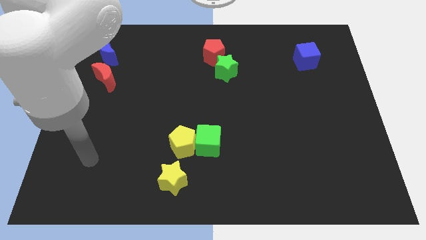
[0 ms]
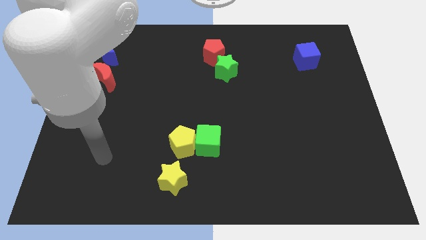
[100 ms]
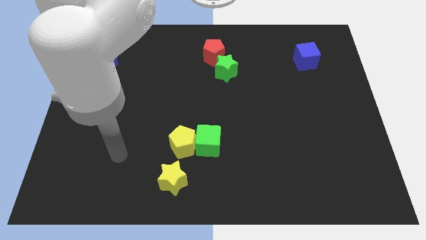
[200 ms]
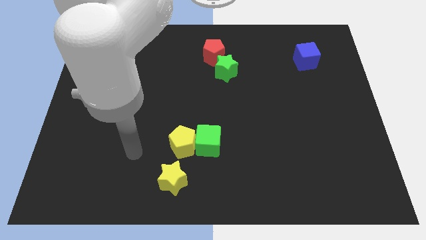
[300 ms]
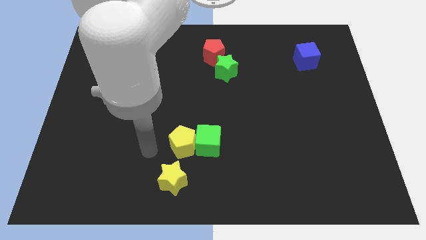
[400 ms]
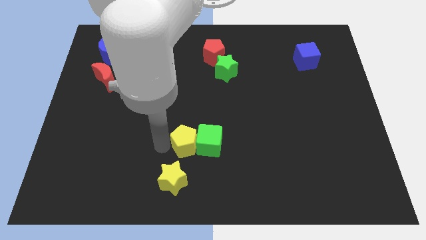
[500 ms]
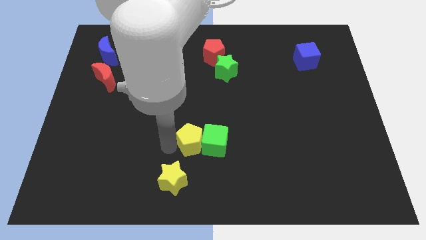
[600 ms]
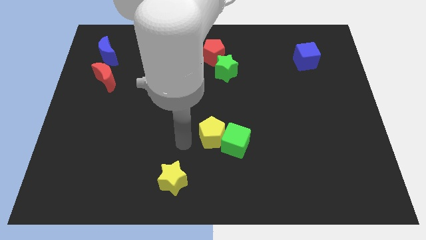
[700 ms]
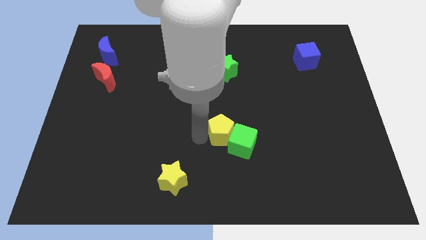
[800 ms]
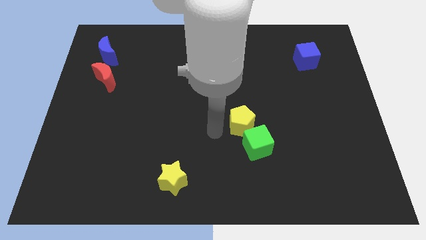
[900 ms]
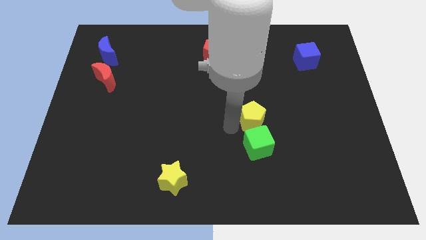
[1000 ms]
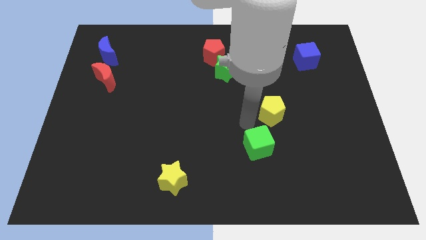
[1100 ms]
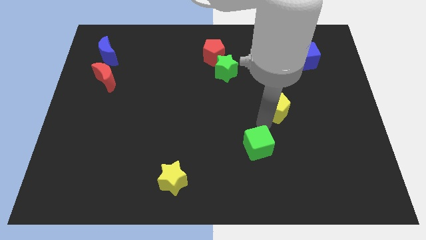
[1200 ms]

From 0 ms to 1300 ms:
pull the green cube apart from the yellow pentagon

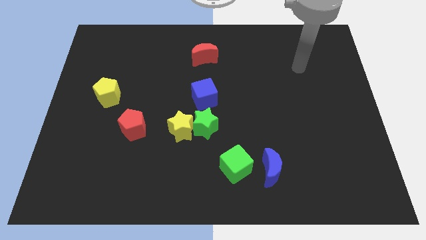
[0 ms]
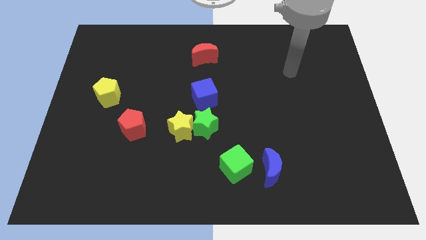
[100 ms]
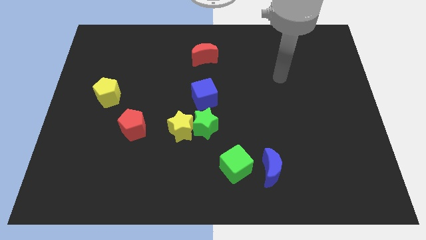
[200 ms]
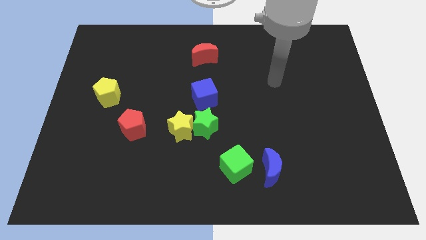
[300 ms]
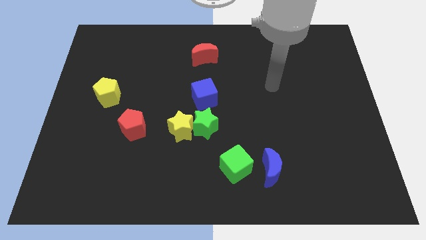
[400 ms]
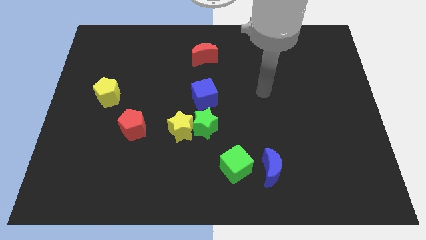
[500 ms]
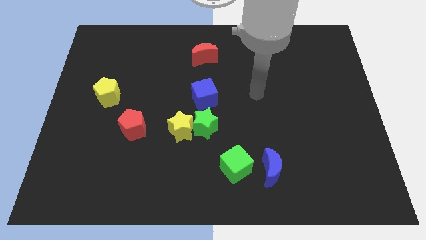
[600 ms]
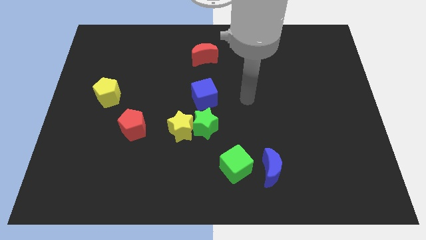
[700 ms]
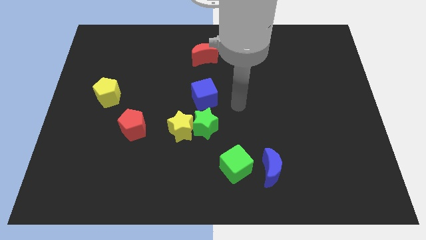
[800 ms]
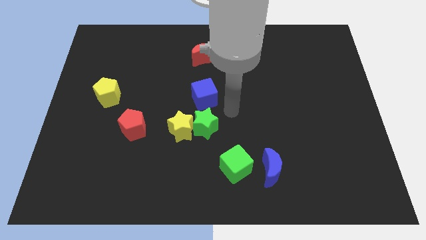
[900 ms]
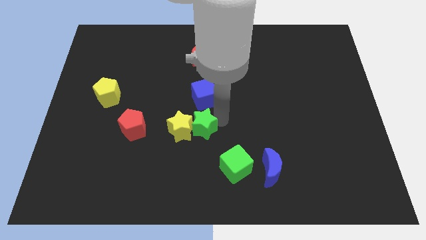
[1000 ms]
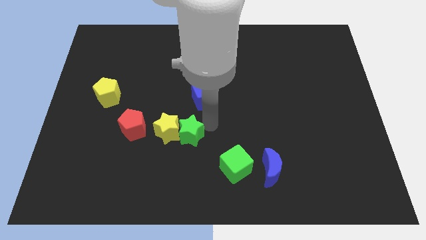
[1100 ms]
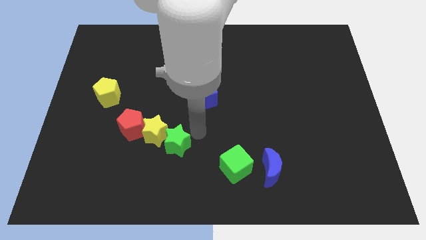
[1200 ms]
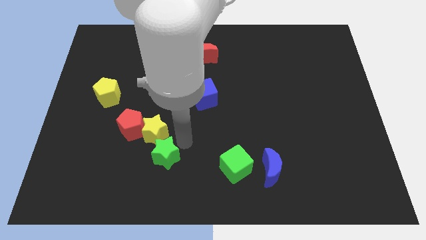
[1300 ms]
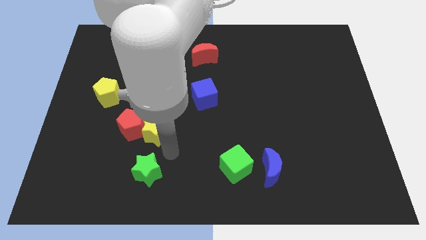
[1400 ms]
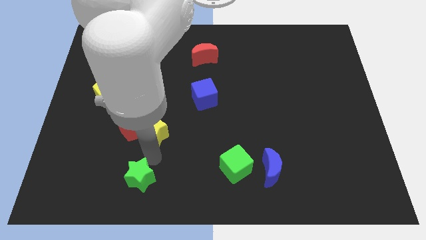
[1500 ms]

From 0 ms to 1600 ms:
separate the yellow star from the green star

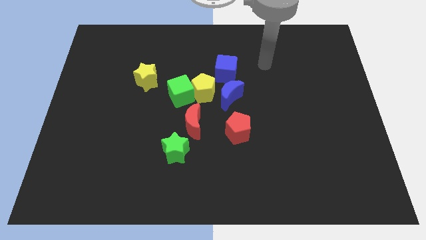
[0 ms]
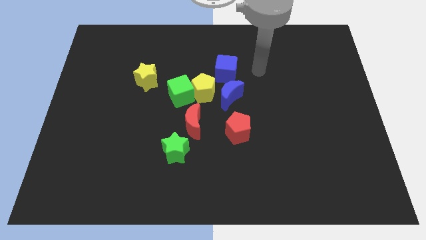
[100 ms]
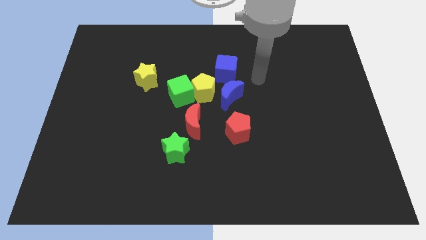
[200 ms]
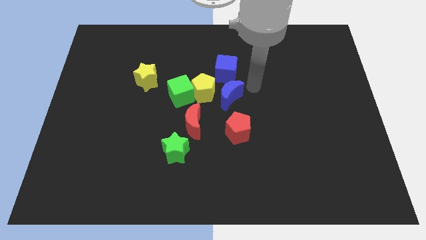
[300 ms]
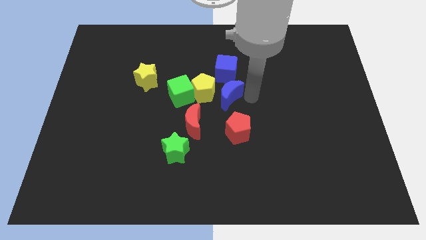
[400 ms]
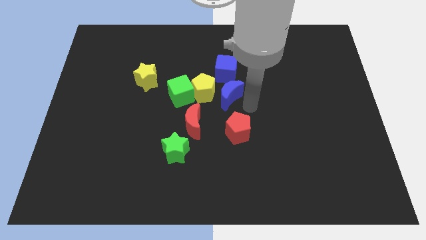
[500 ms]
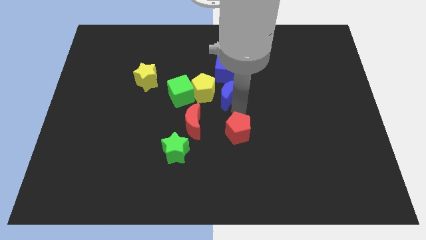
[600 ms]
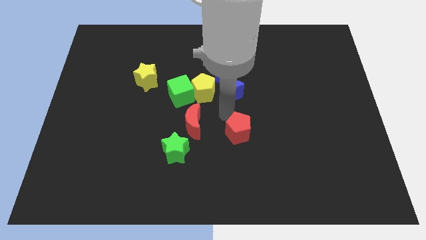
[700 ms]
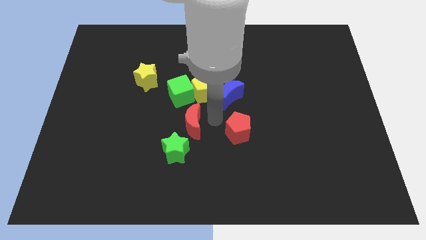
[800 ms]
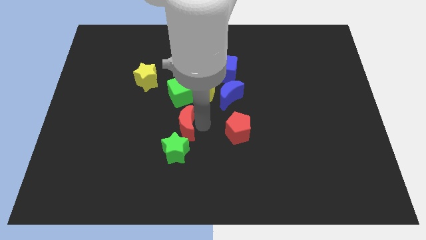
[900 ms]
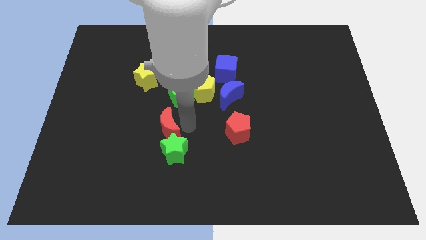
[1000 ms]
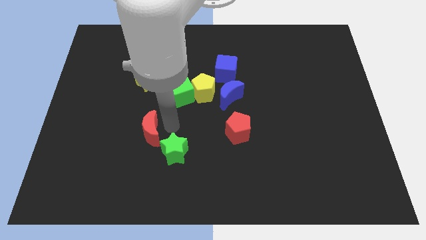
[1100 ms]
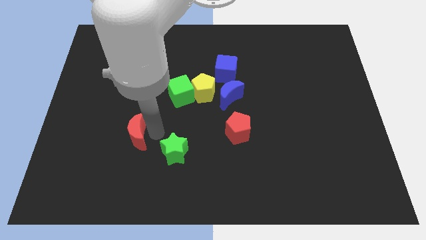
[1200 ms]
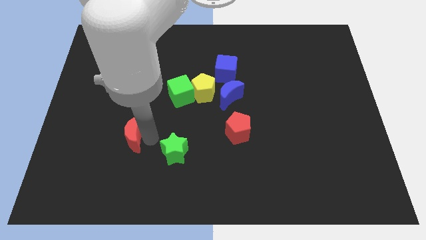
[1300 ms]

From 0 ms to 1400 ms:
pull the green star apart from the red moon

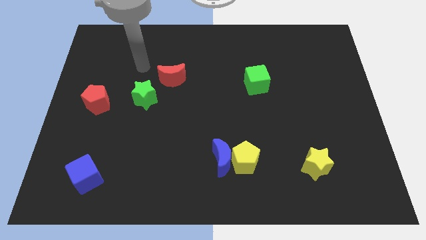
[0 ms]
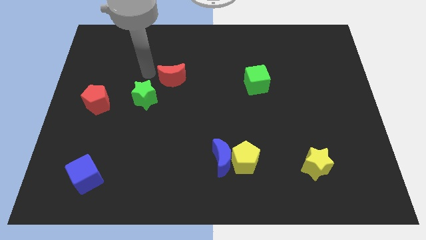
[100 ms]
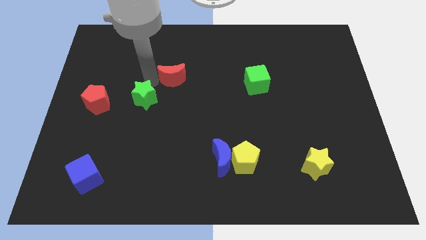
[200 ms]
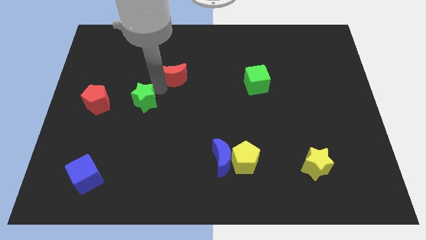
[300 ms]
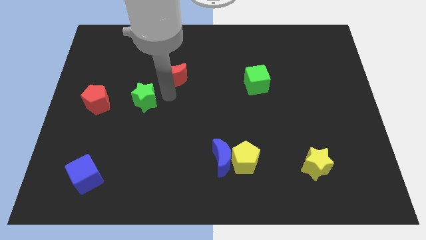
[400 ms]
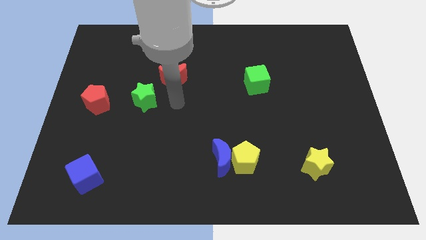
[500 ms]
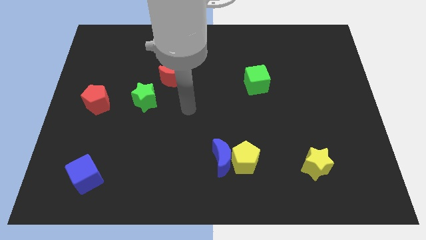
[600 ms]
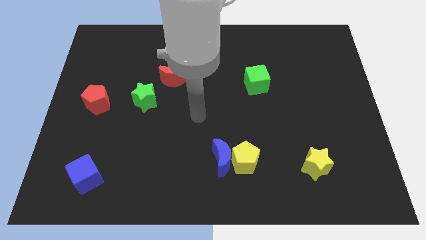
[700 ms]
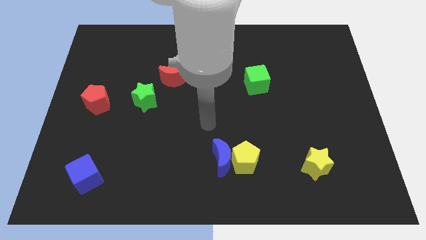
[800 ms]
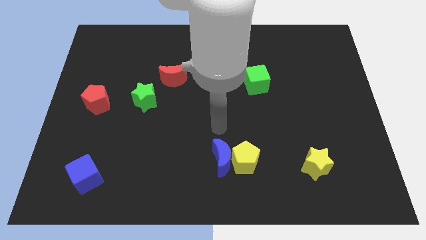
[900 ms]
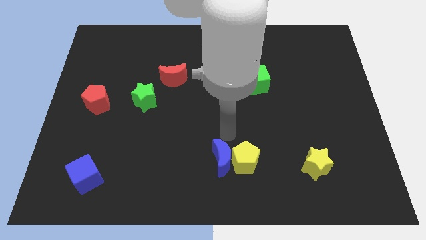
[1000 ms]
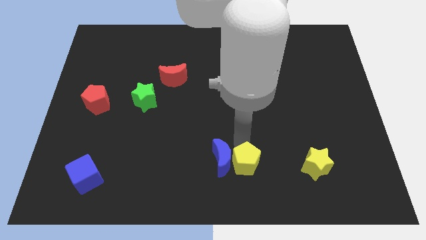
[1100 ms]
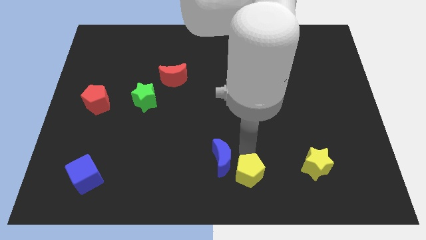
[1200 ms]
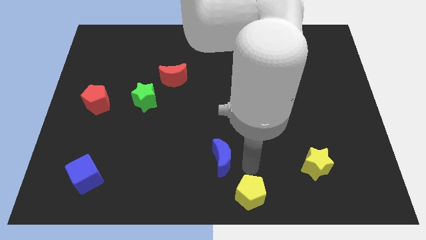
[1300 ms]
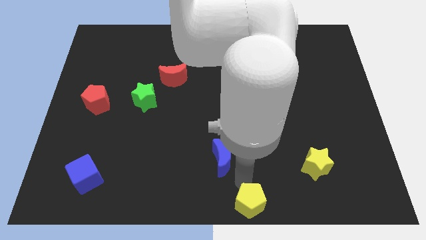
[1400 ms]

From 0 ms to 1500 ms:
separate the blue moon from the yellow pentagon

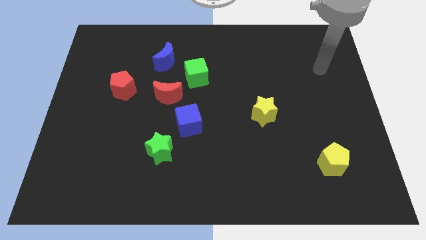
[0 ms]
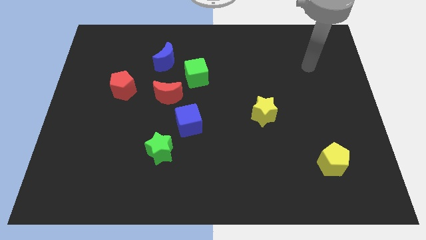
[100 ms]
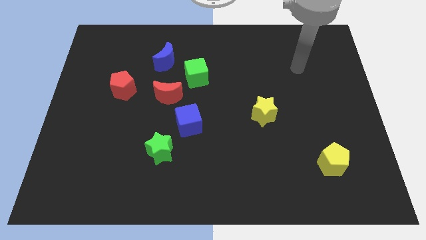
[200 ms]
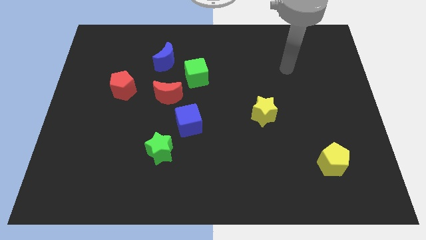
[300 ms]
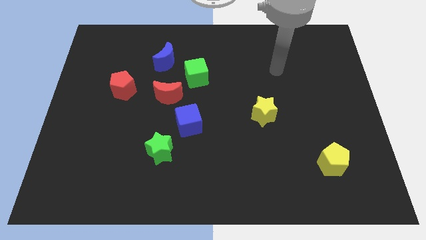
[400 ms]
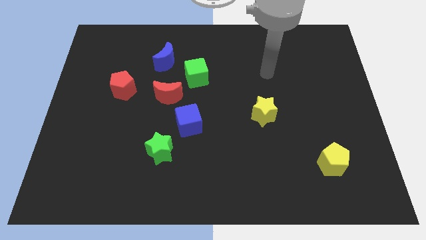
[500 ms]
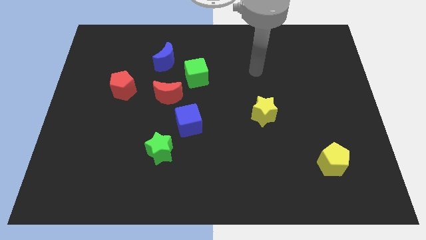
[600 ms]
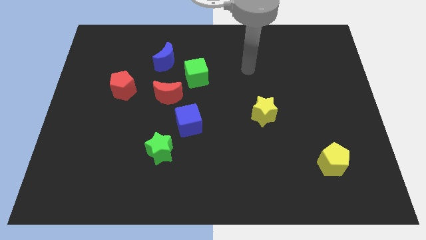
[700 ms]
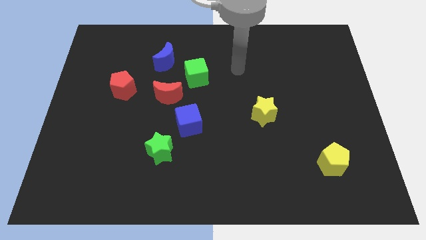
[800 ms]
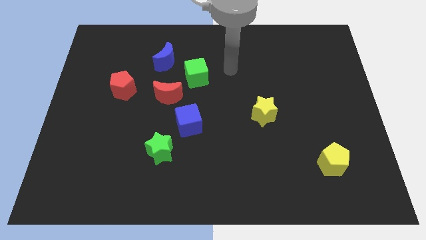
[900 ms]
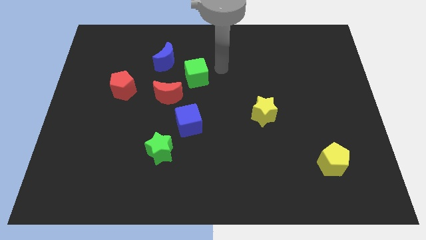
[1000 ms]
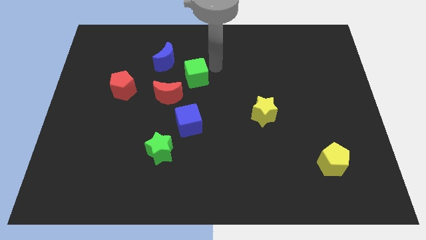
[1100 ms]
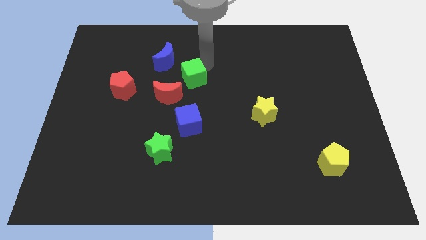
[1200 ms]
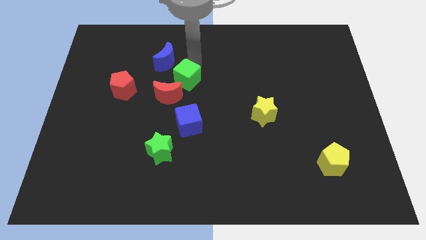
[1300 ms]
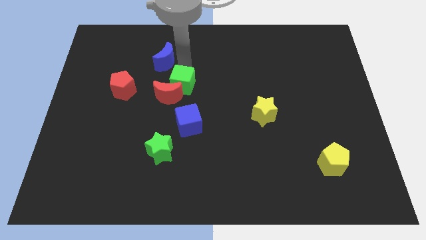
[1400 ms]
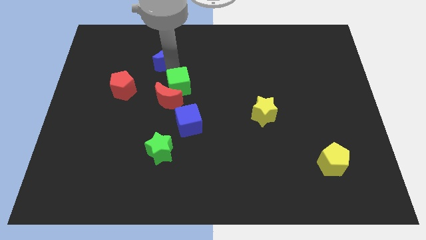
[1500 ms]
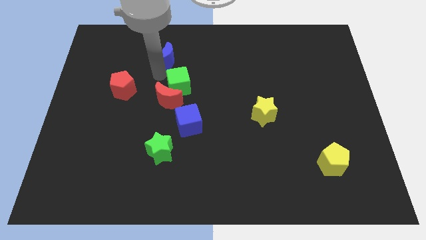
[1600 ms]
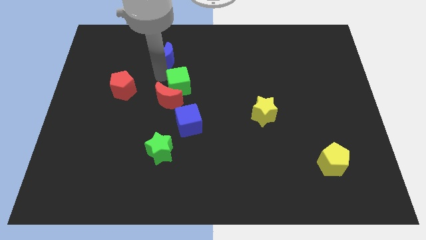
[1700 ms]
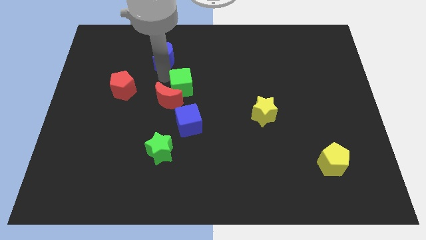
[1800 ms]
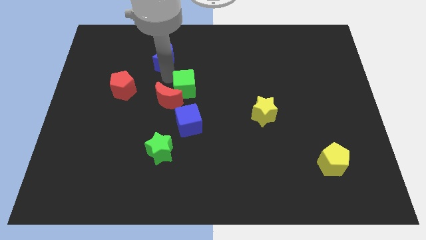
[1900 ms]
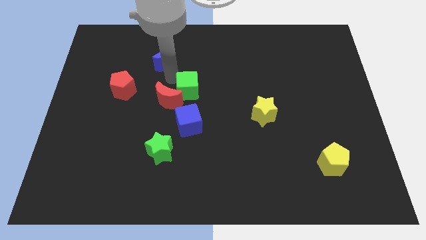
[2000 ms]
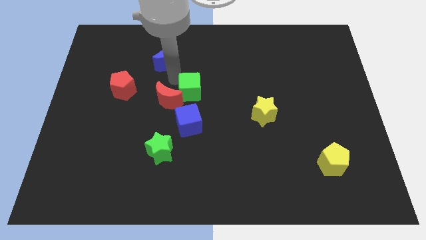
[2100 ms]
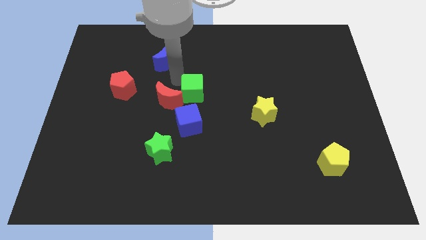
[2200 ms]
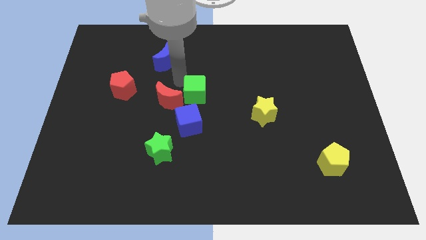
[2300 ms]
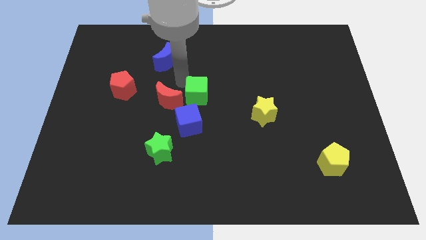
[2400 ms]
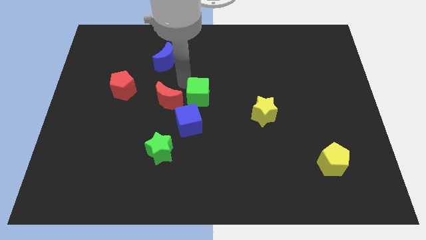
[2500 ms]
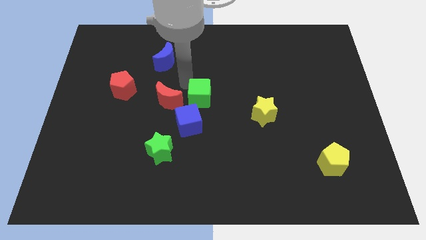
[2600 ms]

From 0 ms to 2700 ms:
separate the green cube from the red moon and blue moon

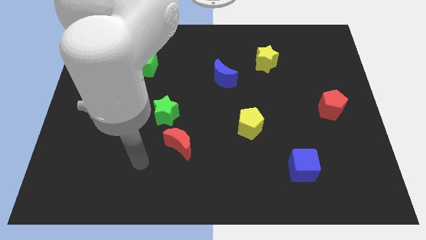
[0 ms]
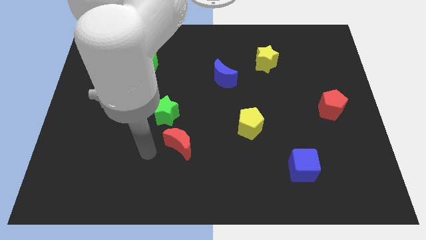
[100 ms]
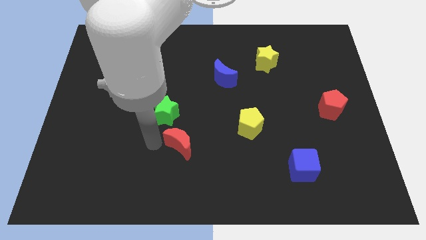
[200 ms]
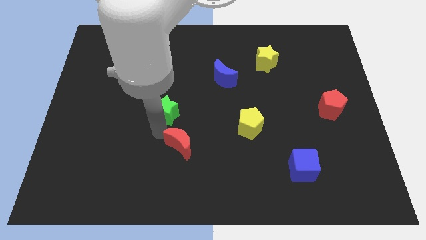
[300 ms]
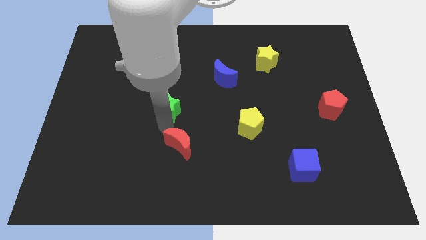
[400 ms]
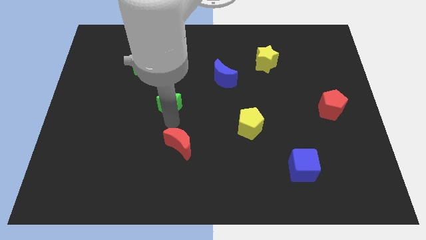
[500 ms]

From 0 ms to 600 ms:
move the red moon away from the green star

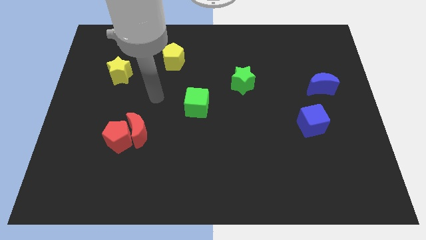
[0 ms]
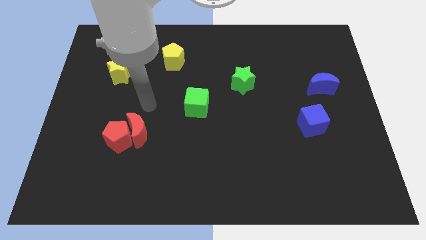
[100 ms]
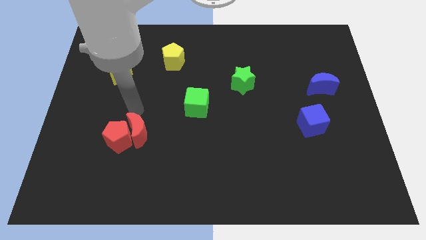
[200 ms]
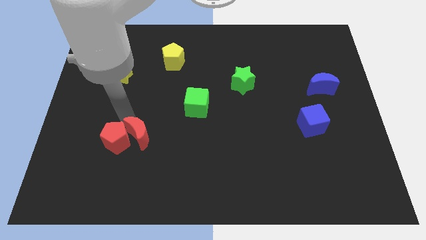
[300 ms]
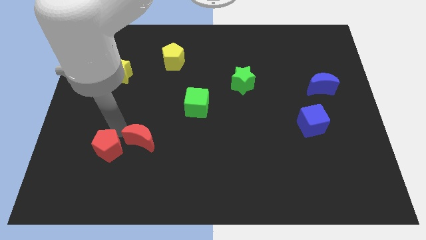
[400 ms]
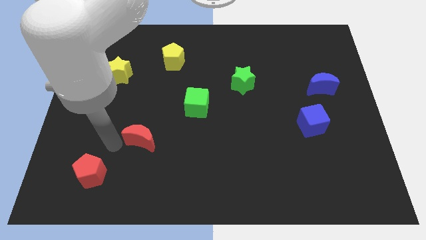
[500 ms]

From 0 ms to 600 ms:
separate the red moon from the red pentagon
